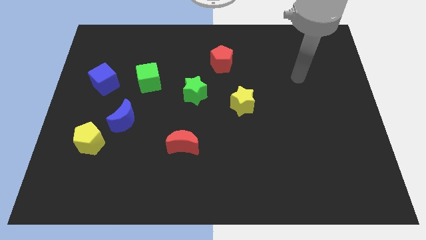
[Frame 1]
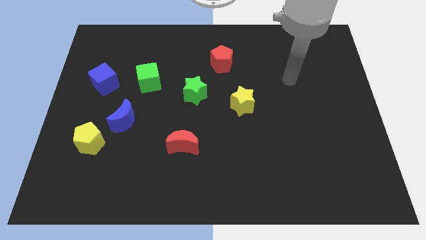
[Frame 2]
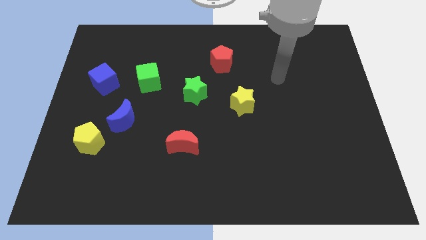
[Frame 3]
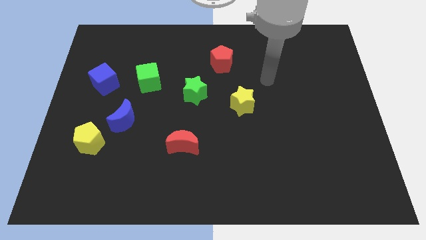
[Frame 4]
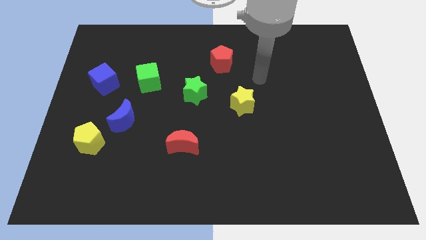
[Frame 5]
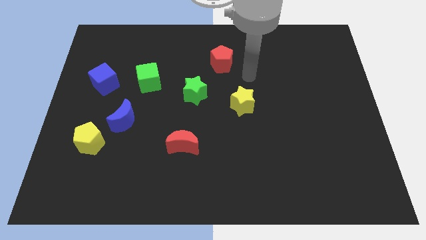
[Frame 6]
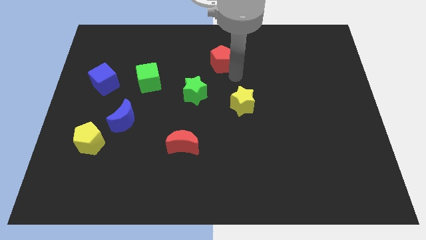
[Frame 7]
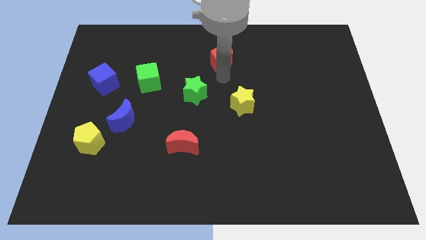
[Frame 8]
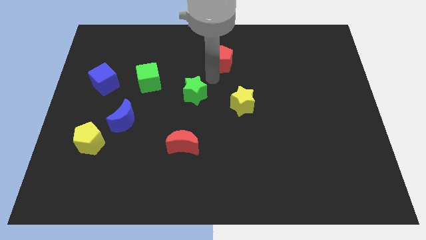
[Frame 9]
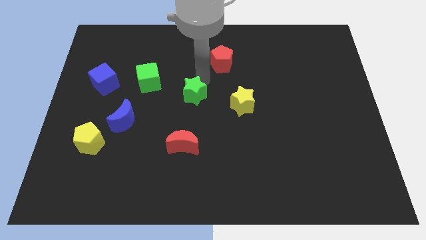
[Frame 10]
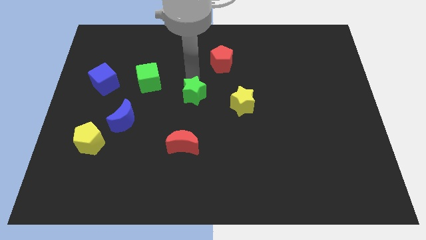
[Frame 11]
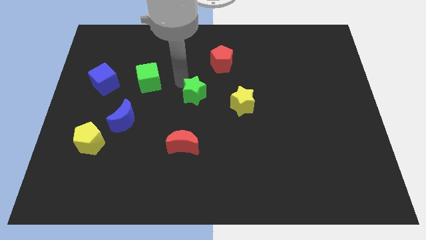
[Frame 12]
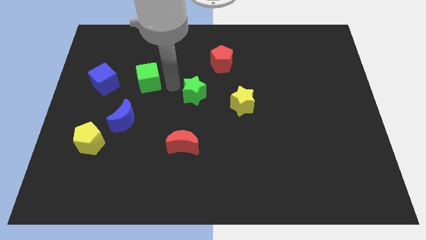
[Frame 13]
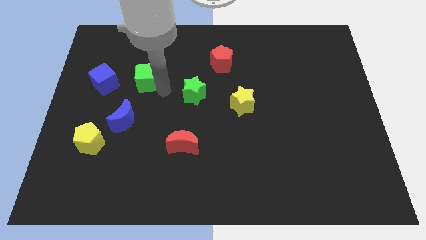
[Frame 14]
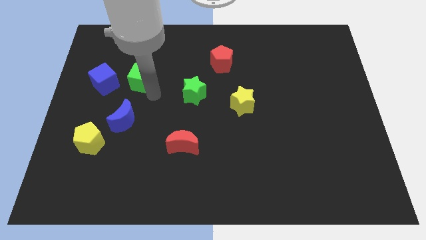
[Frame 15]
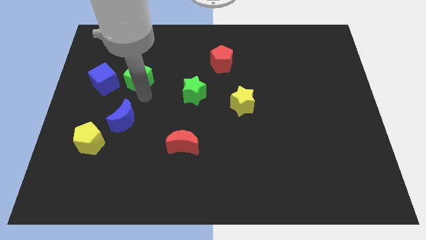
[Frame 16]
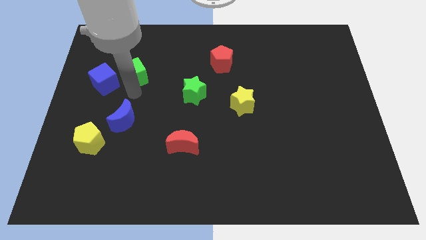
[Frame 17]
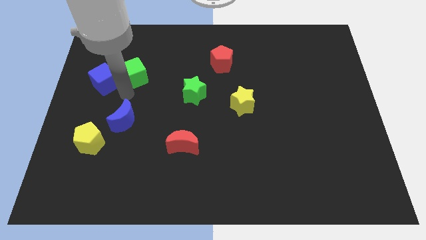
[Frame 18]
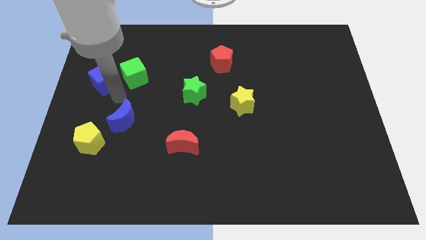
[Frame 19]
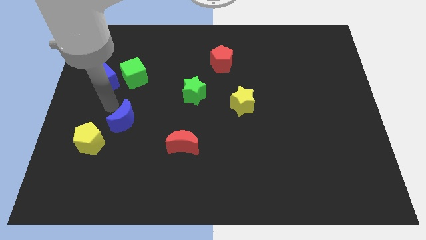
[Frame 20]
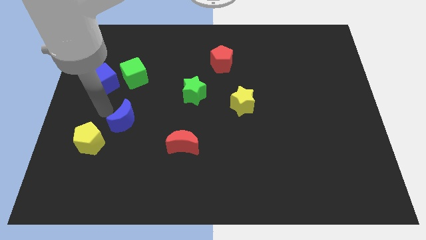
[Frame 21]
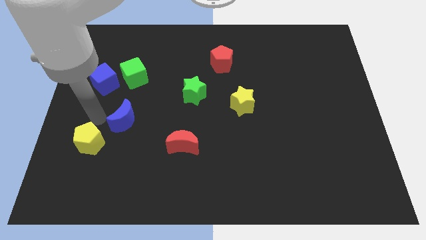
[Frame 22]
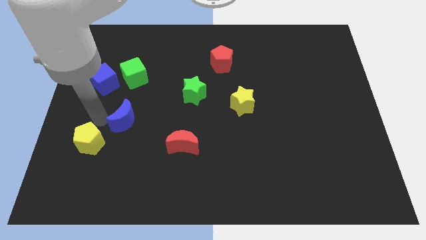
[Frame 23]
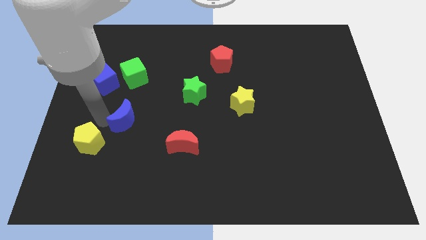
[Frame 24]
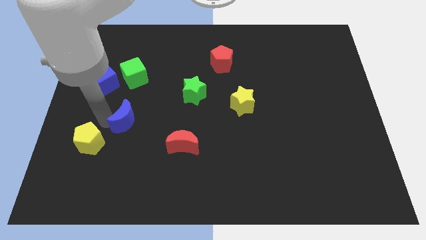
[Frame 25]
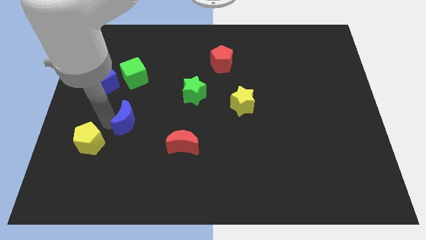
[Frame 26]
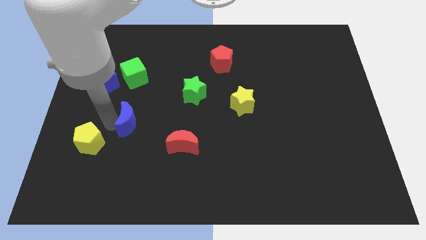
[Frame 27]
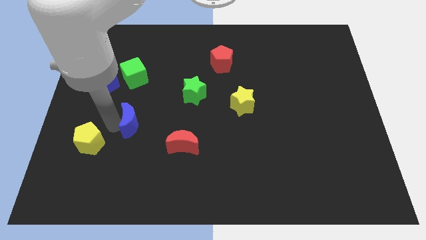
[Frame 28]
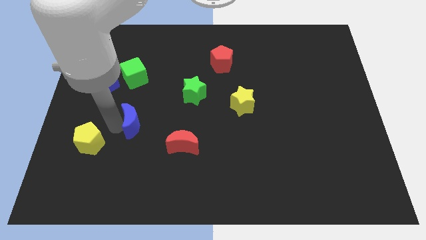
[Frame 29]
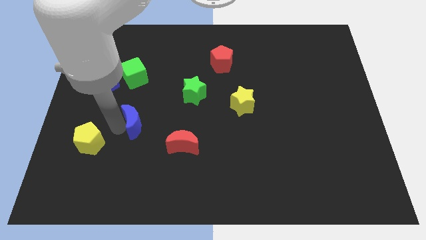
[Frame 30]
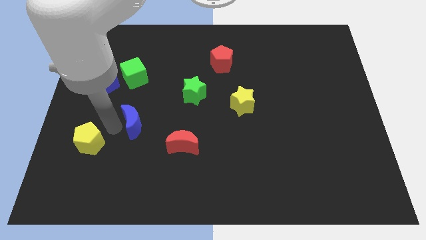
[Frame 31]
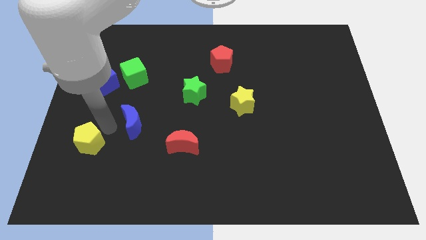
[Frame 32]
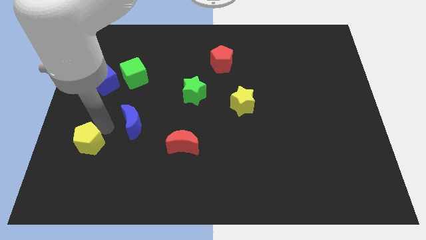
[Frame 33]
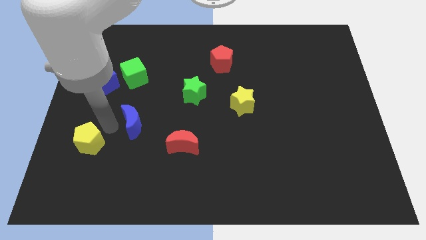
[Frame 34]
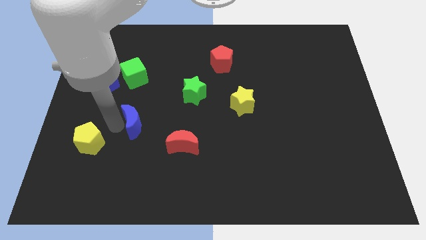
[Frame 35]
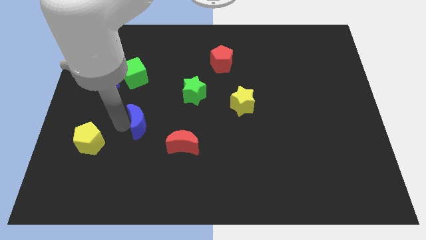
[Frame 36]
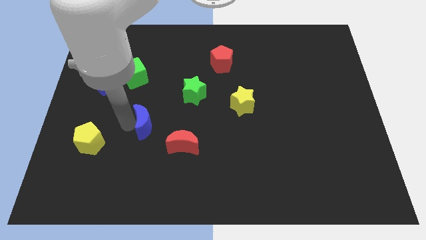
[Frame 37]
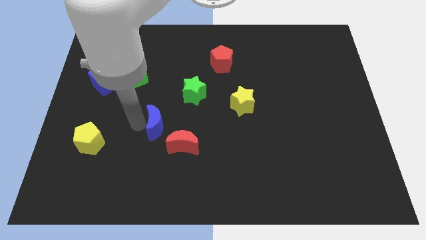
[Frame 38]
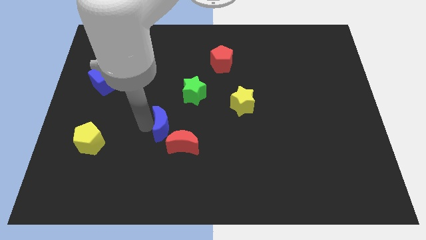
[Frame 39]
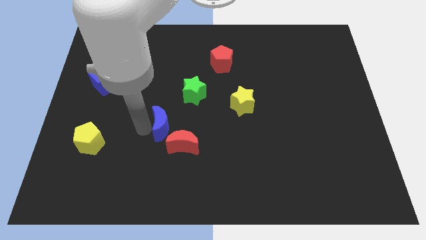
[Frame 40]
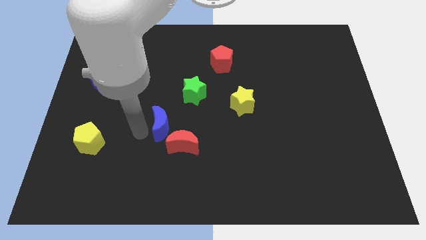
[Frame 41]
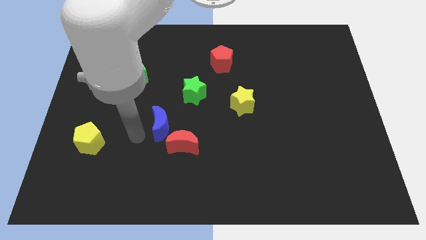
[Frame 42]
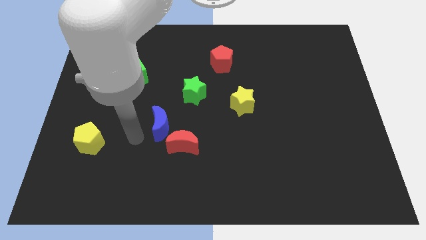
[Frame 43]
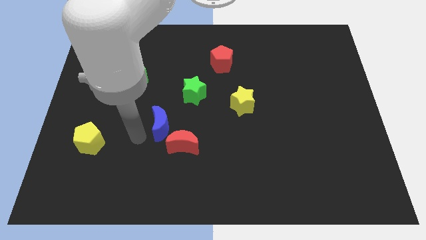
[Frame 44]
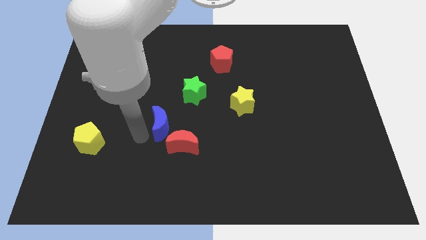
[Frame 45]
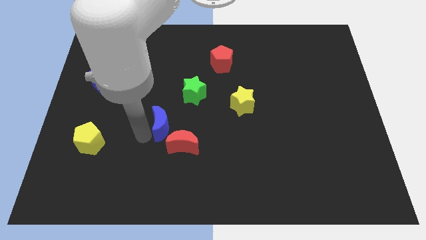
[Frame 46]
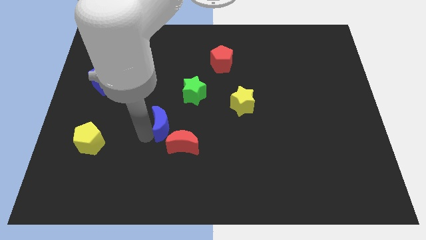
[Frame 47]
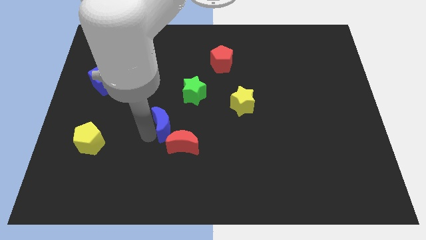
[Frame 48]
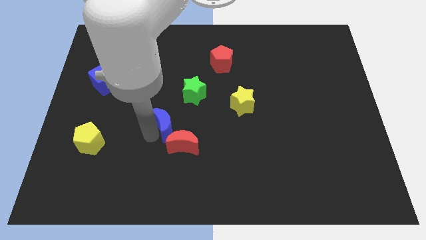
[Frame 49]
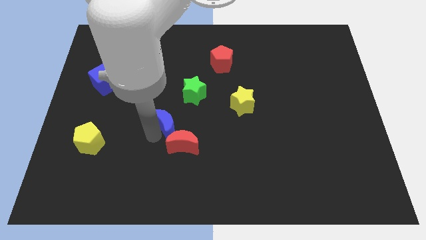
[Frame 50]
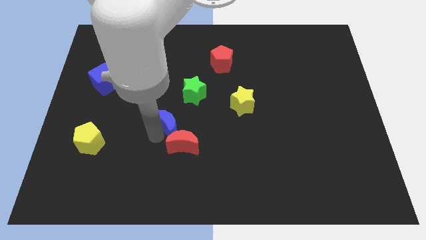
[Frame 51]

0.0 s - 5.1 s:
slide the blue moon to the center

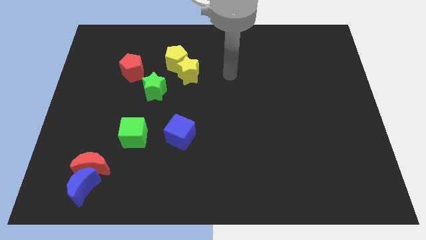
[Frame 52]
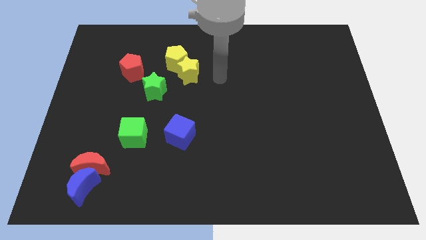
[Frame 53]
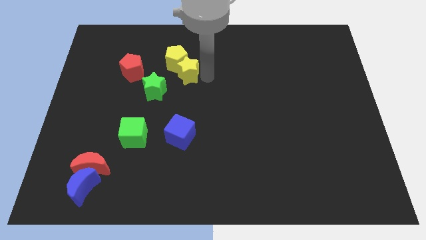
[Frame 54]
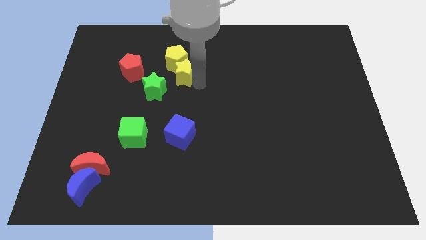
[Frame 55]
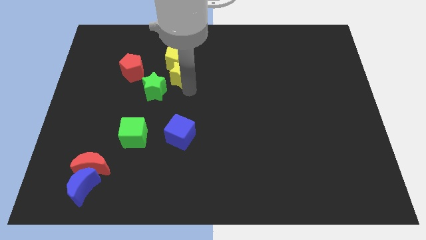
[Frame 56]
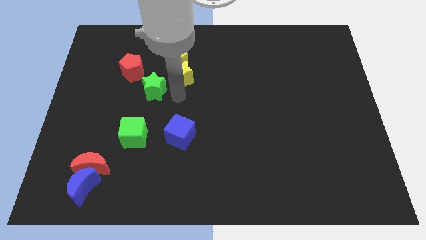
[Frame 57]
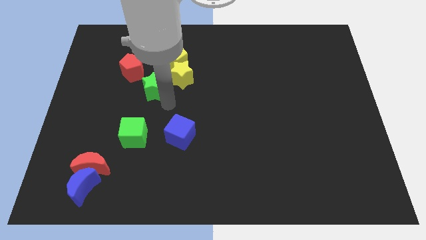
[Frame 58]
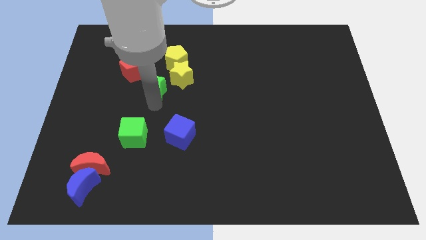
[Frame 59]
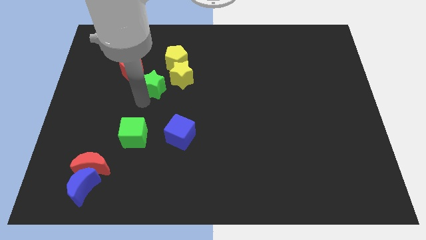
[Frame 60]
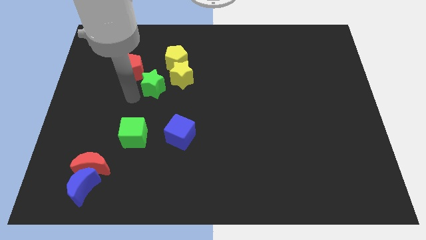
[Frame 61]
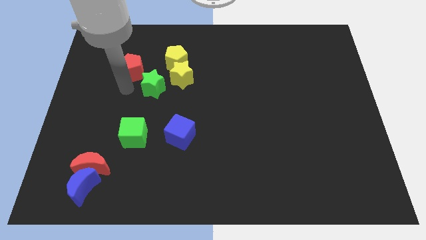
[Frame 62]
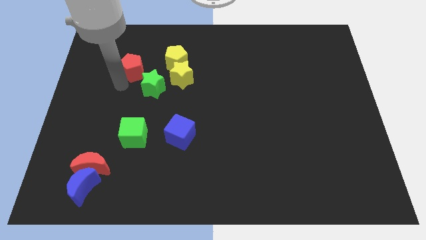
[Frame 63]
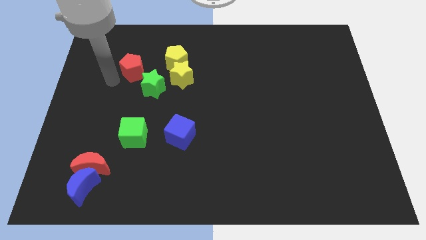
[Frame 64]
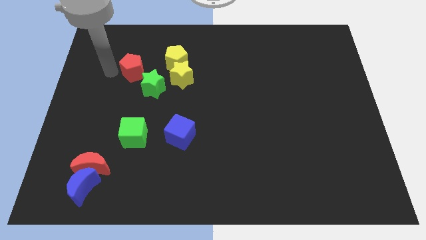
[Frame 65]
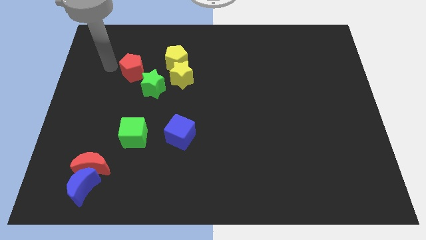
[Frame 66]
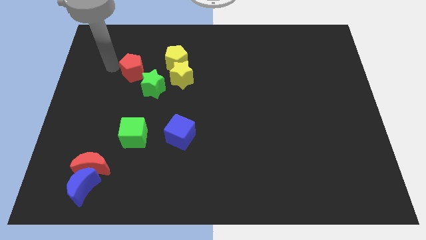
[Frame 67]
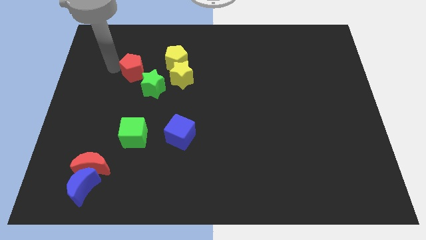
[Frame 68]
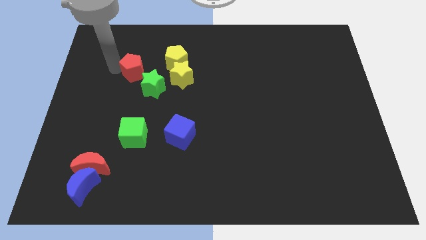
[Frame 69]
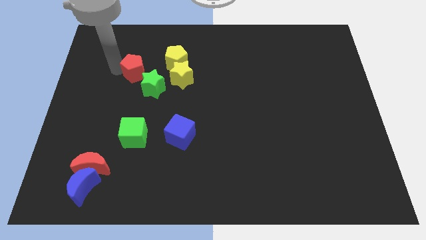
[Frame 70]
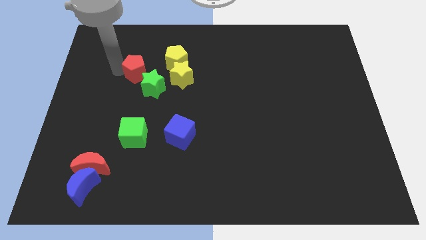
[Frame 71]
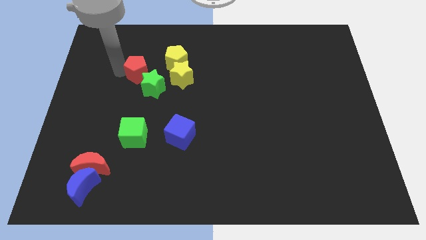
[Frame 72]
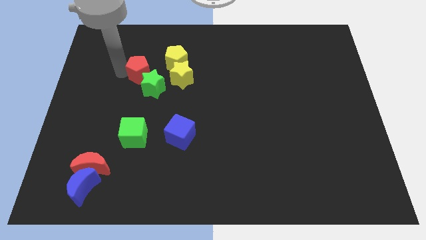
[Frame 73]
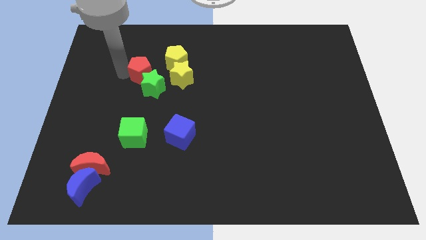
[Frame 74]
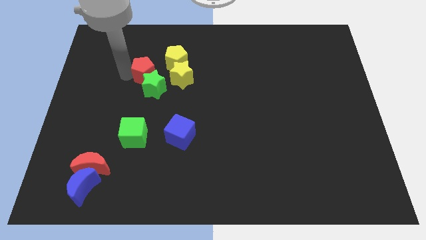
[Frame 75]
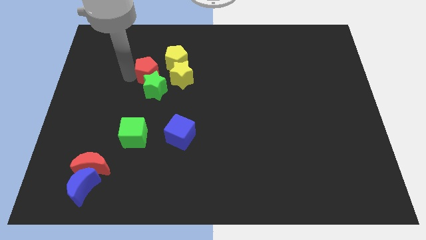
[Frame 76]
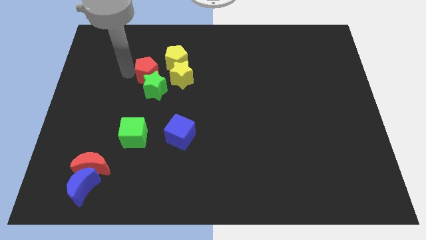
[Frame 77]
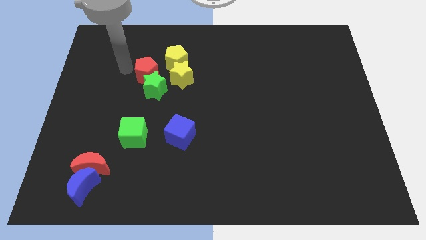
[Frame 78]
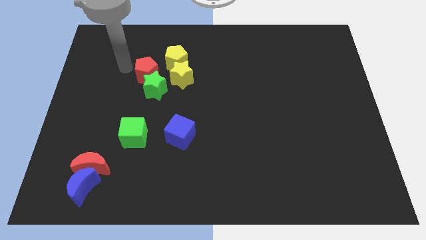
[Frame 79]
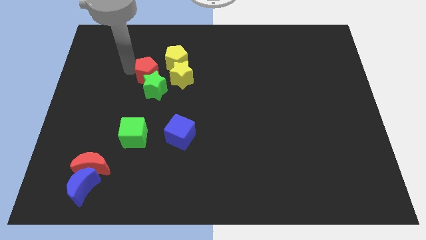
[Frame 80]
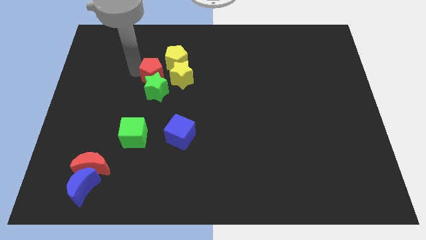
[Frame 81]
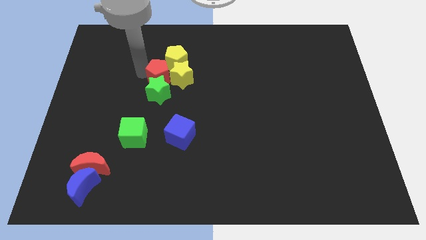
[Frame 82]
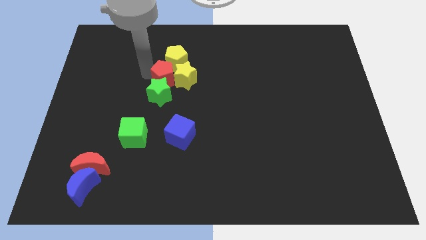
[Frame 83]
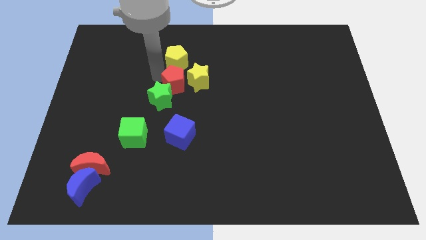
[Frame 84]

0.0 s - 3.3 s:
push the red pentagon to the center
